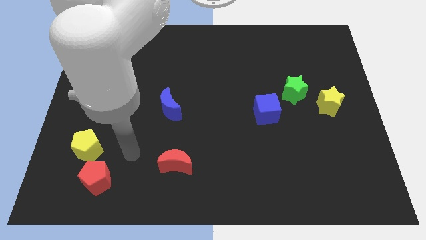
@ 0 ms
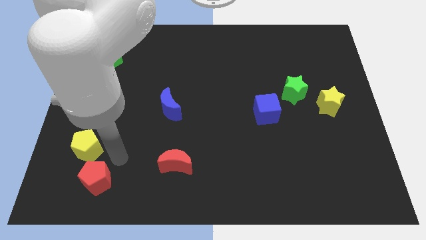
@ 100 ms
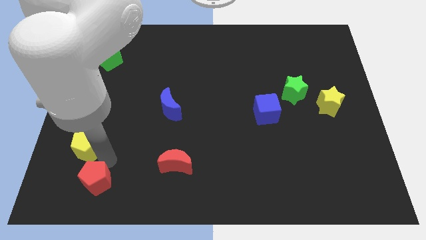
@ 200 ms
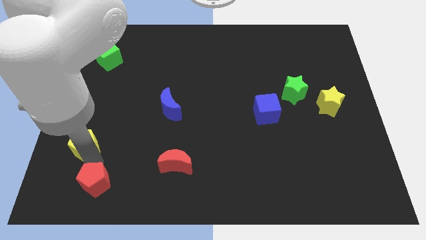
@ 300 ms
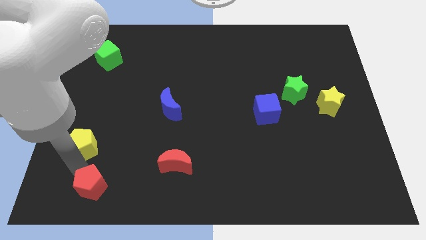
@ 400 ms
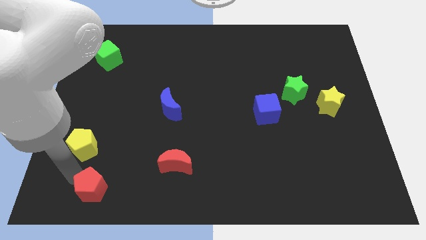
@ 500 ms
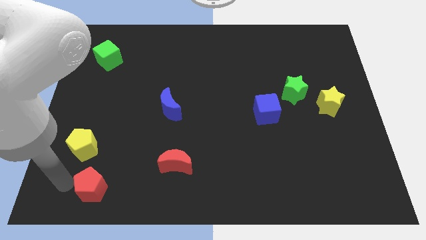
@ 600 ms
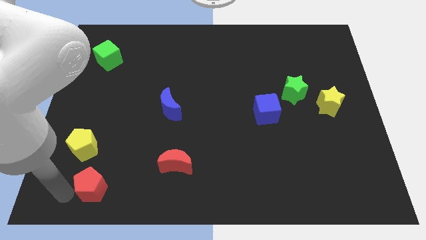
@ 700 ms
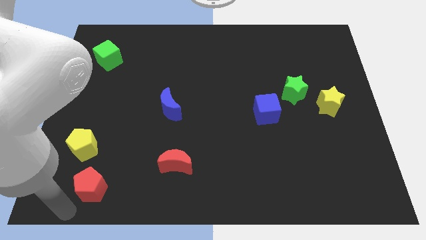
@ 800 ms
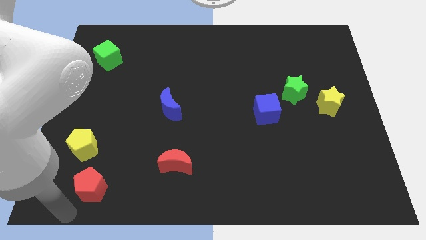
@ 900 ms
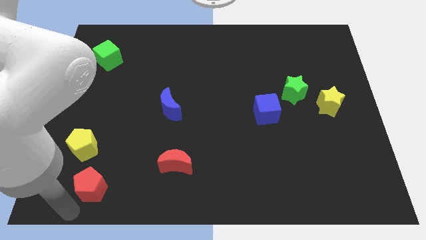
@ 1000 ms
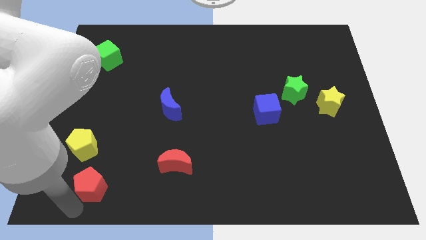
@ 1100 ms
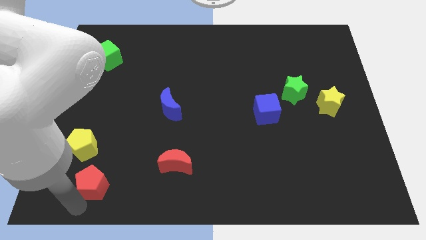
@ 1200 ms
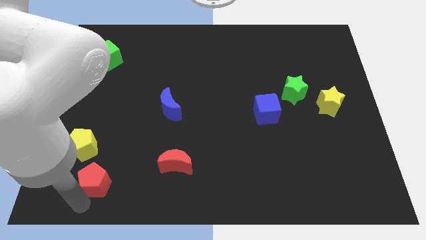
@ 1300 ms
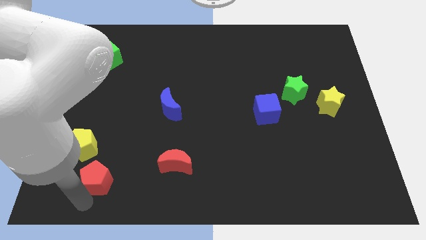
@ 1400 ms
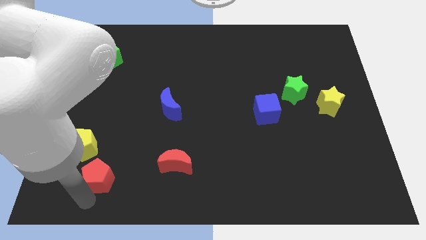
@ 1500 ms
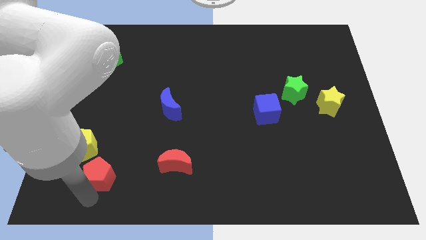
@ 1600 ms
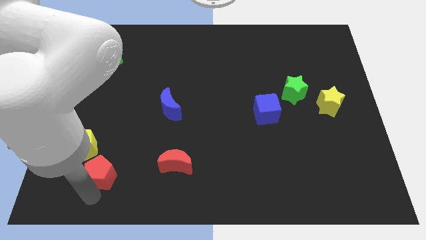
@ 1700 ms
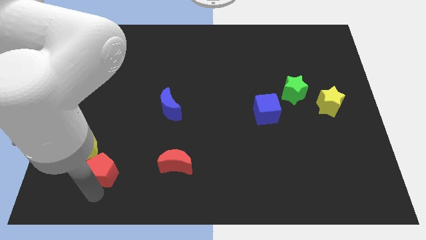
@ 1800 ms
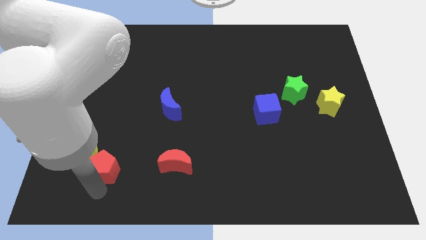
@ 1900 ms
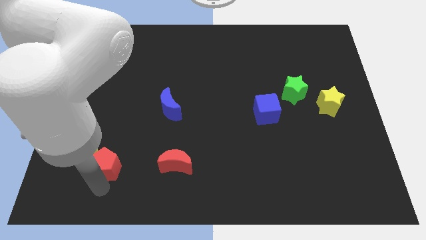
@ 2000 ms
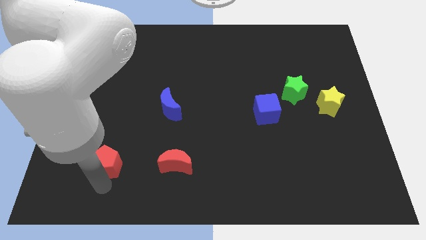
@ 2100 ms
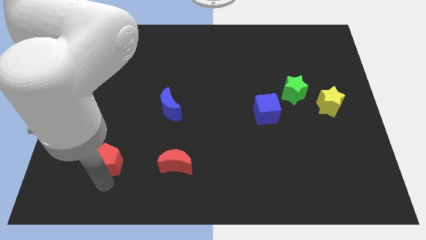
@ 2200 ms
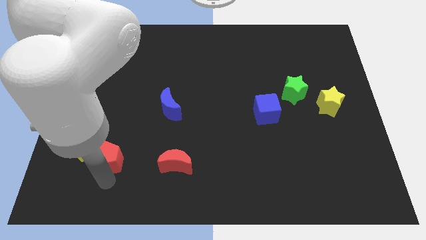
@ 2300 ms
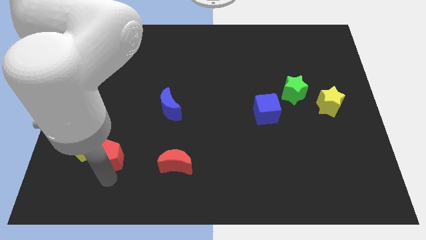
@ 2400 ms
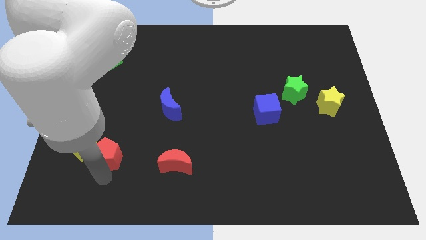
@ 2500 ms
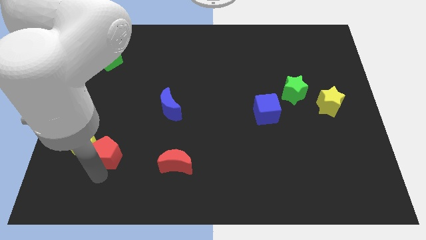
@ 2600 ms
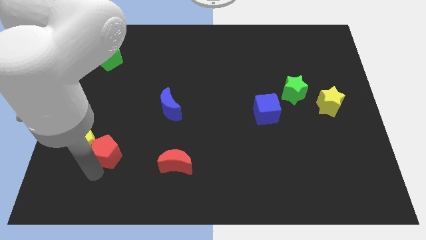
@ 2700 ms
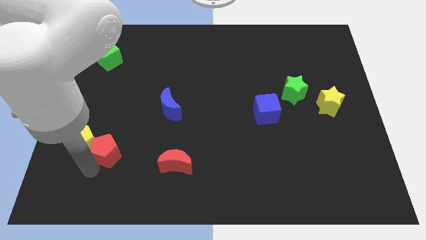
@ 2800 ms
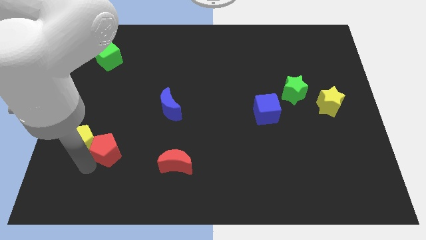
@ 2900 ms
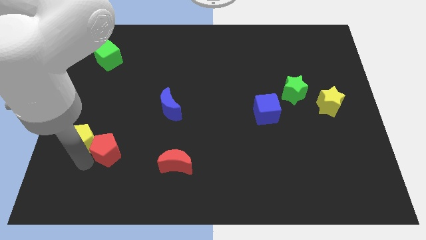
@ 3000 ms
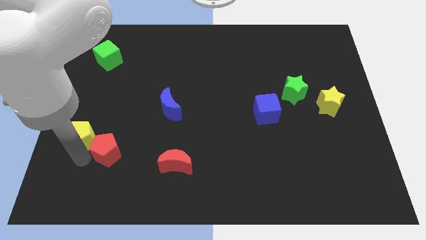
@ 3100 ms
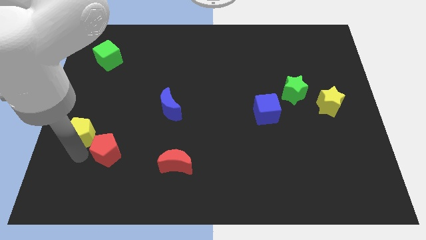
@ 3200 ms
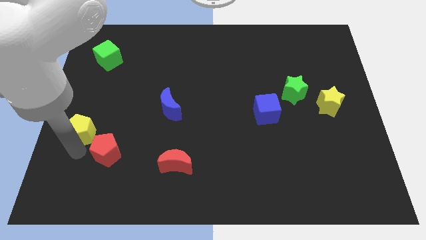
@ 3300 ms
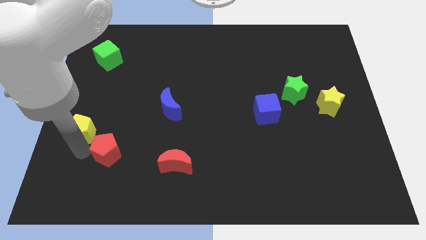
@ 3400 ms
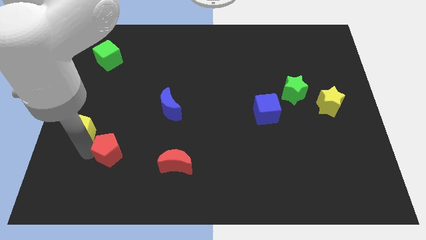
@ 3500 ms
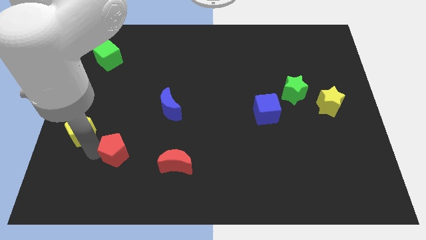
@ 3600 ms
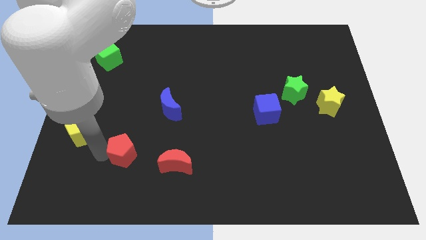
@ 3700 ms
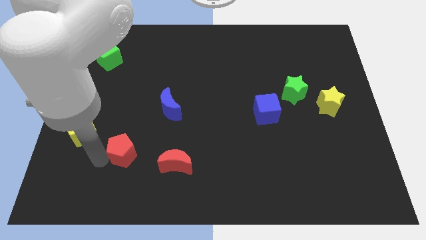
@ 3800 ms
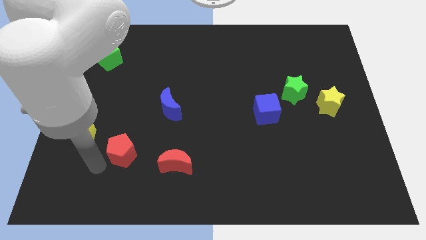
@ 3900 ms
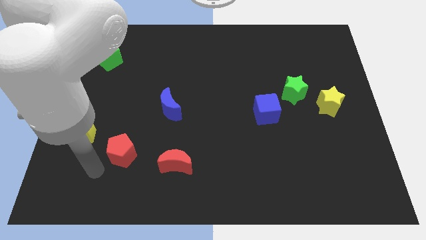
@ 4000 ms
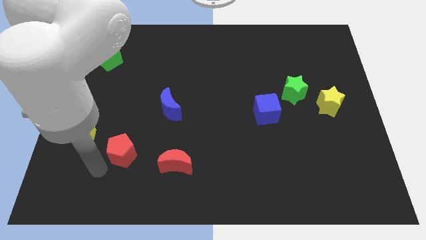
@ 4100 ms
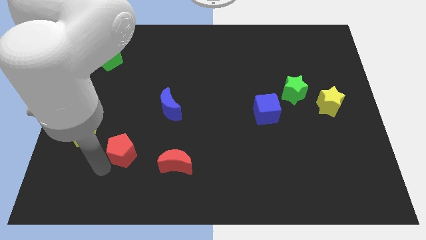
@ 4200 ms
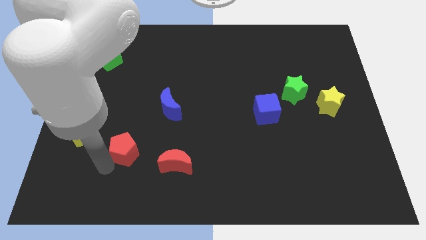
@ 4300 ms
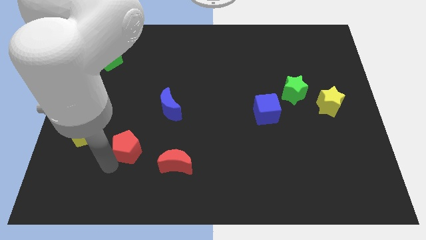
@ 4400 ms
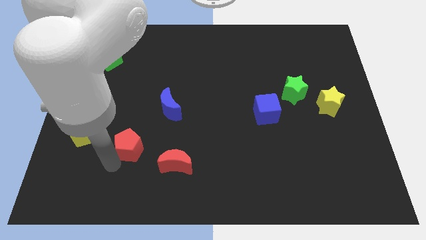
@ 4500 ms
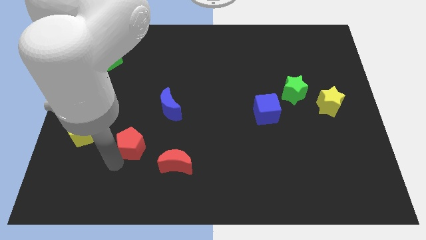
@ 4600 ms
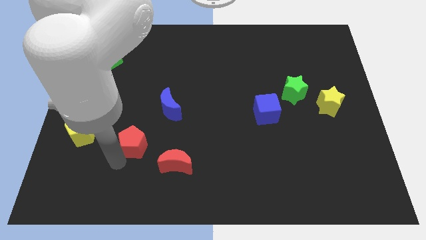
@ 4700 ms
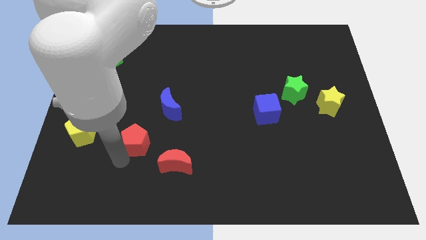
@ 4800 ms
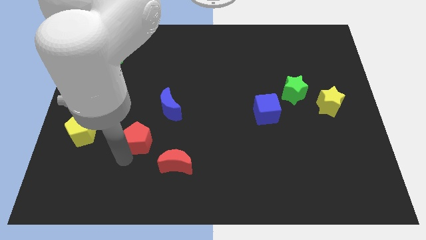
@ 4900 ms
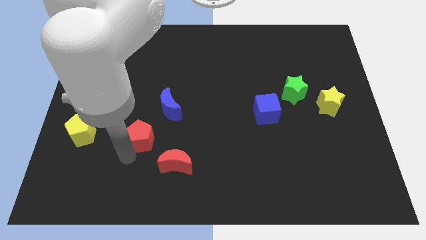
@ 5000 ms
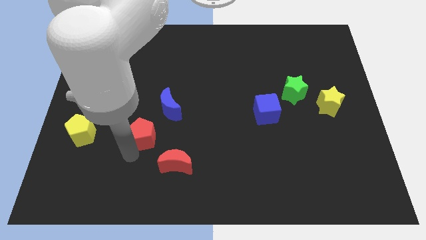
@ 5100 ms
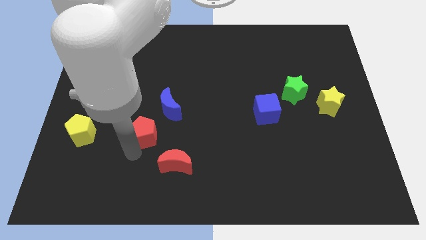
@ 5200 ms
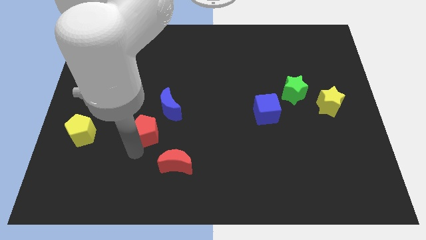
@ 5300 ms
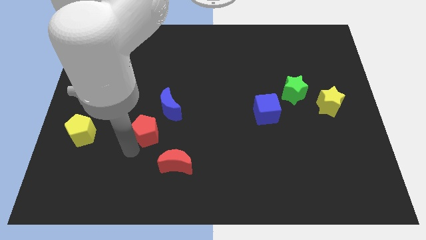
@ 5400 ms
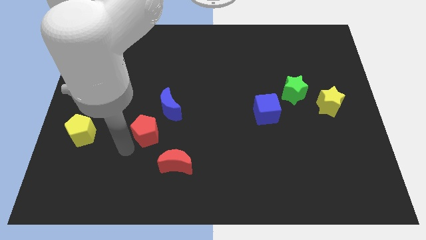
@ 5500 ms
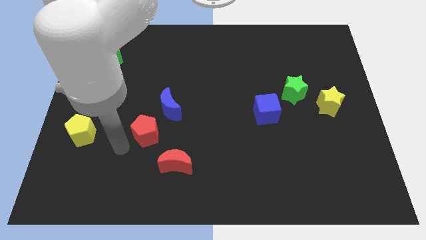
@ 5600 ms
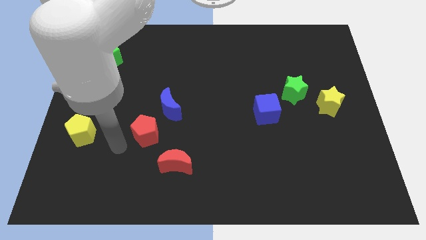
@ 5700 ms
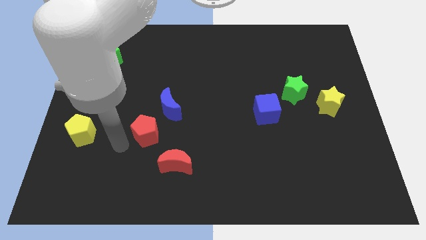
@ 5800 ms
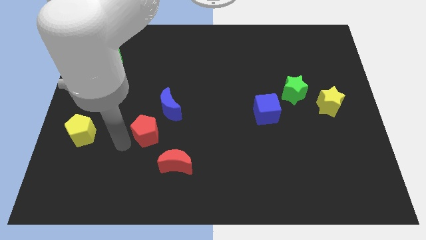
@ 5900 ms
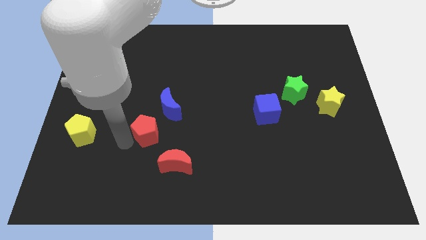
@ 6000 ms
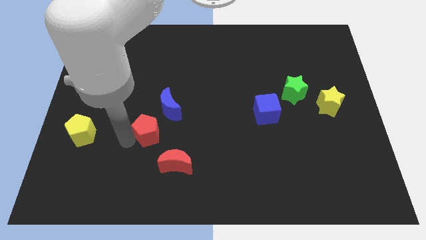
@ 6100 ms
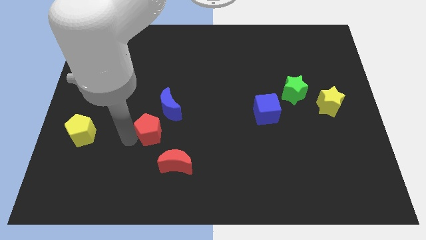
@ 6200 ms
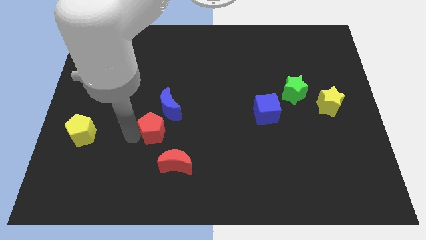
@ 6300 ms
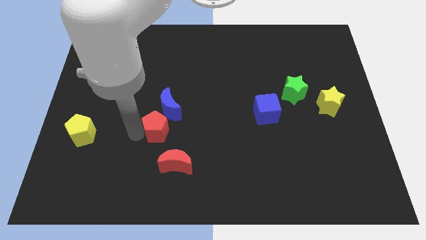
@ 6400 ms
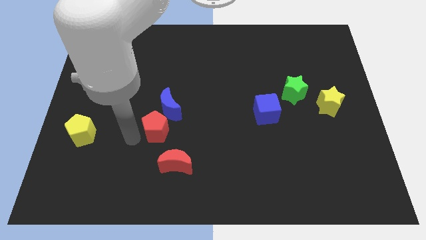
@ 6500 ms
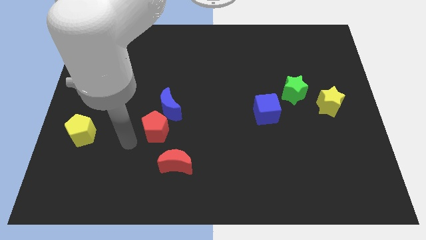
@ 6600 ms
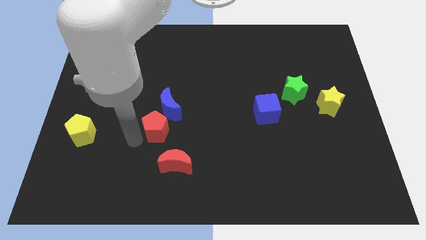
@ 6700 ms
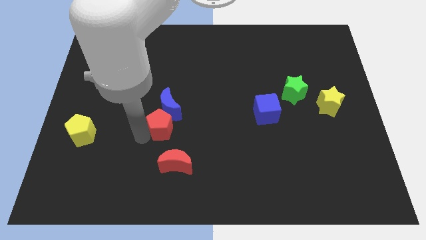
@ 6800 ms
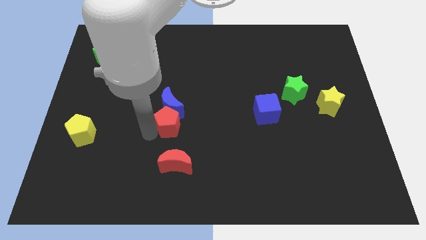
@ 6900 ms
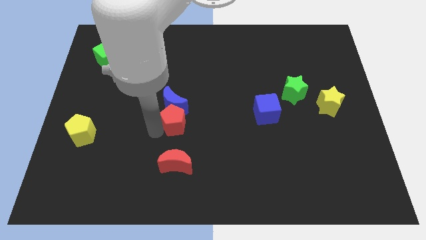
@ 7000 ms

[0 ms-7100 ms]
slide the red pentagon upwards and to the right

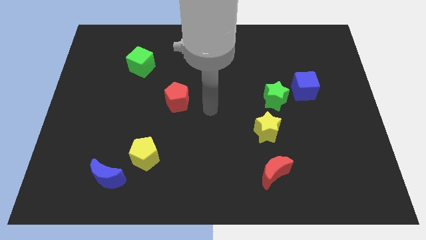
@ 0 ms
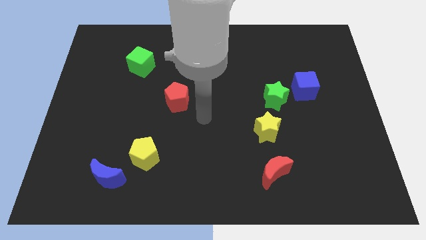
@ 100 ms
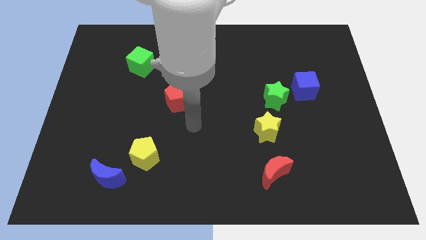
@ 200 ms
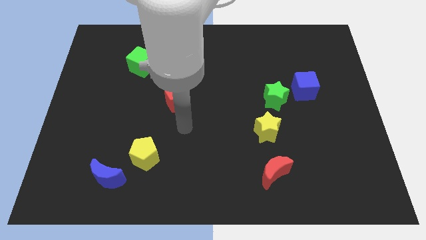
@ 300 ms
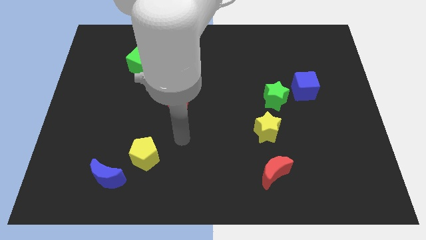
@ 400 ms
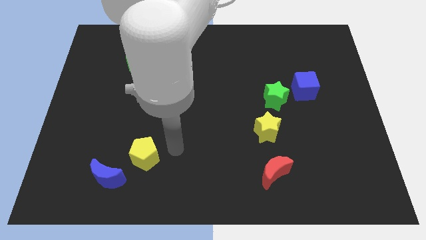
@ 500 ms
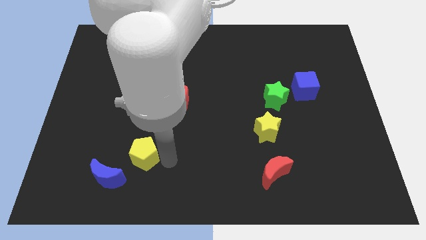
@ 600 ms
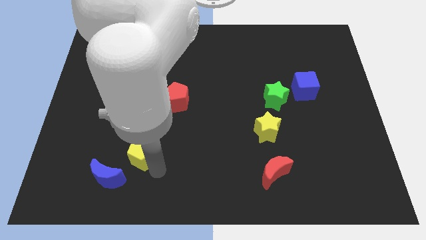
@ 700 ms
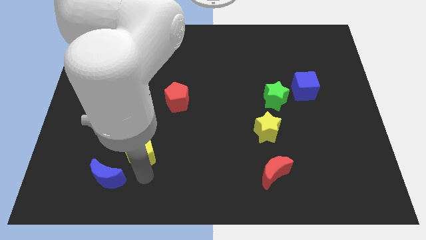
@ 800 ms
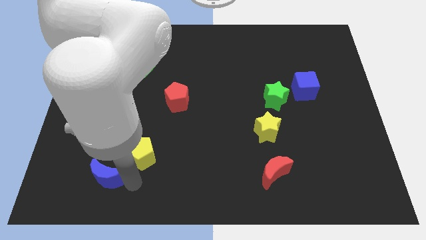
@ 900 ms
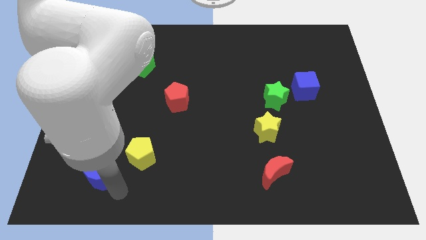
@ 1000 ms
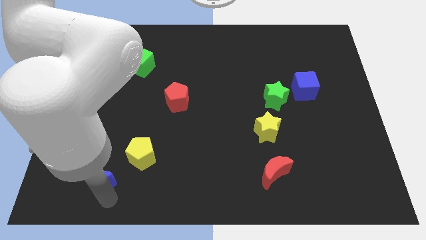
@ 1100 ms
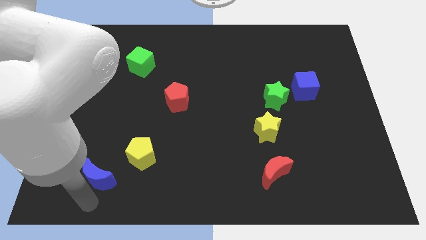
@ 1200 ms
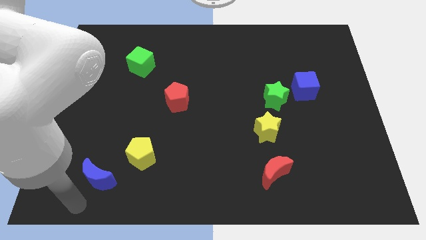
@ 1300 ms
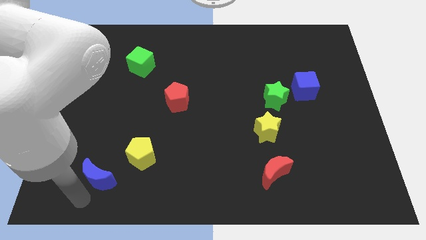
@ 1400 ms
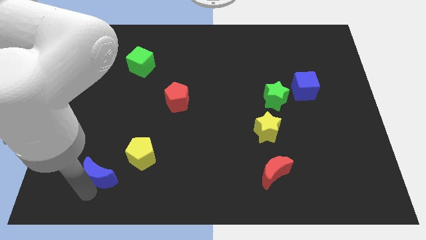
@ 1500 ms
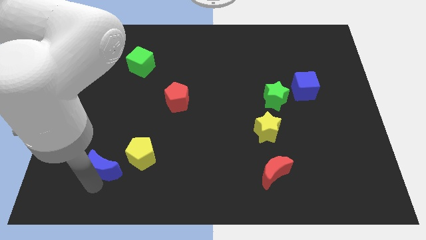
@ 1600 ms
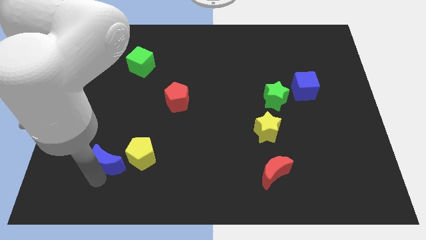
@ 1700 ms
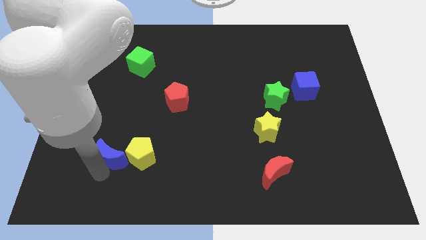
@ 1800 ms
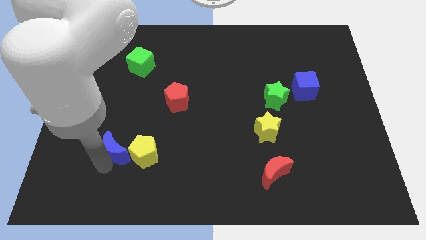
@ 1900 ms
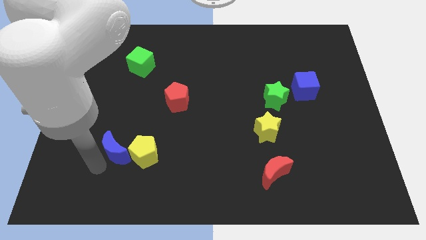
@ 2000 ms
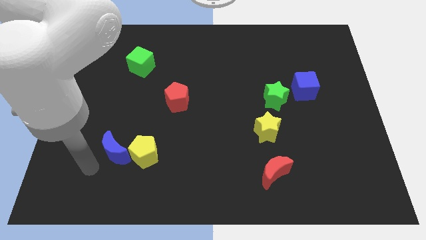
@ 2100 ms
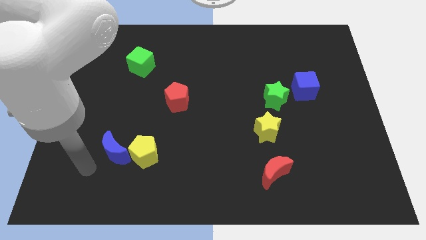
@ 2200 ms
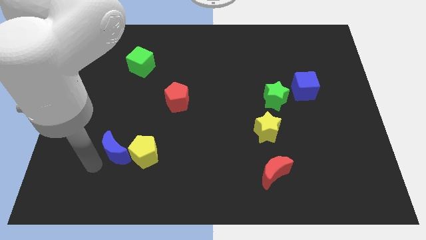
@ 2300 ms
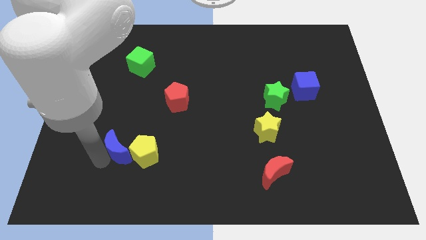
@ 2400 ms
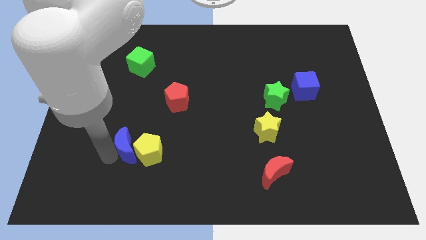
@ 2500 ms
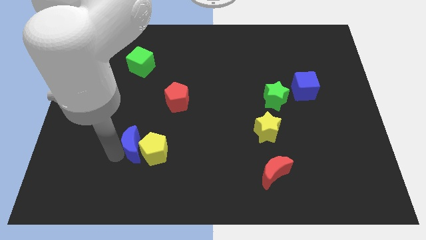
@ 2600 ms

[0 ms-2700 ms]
slide the blue moon diagonally up and to the right a little bit
